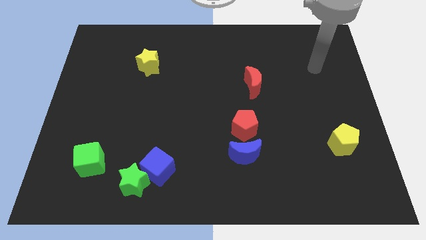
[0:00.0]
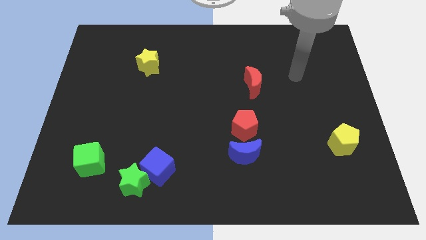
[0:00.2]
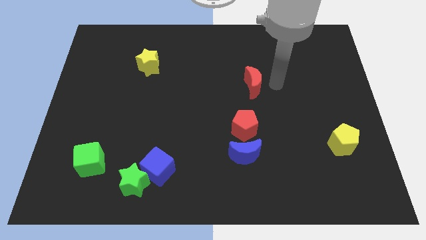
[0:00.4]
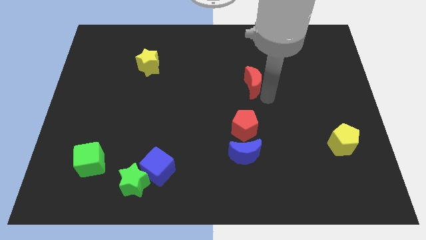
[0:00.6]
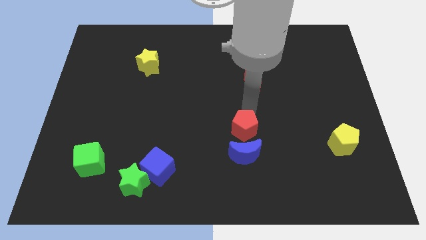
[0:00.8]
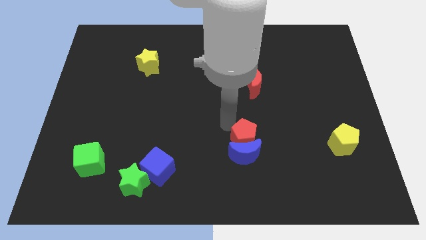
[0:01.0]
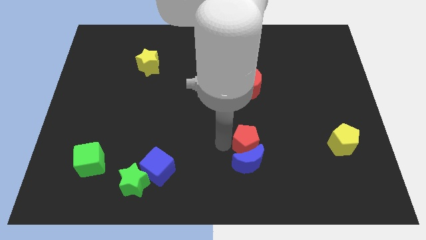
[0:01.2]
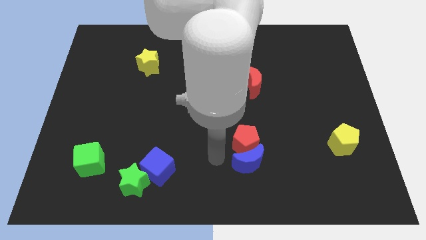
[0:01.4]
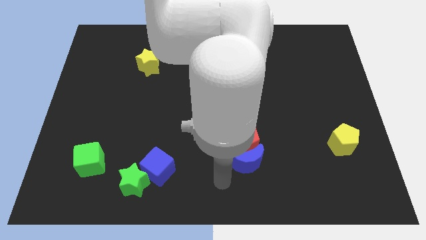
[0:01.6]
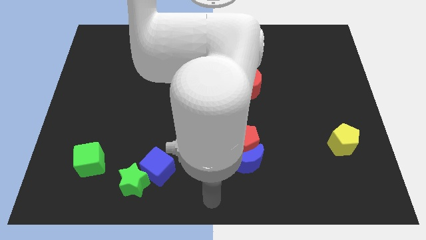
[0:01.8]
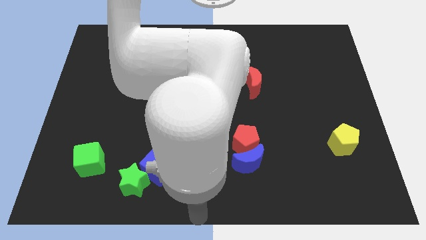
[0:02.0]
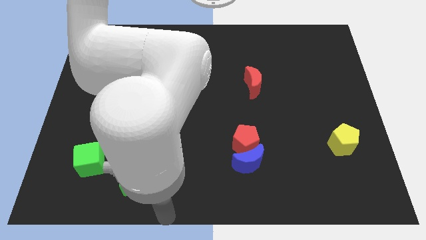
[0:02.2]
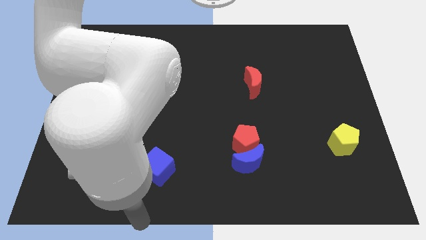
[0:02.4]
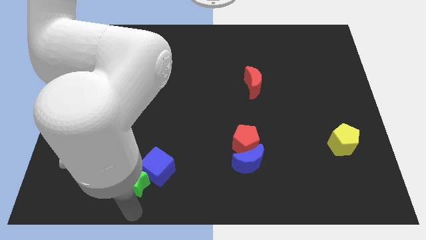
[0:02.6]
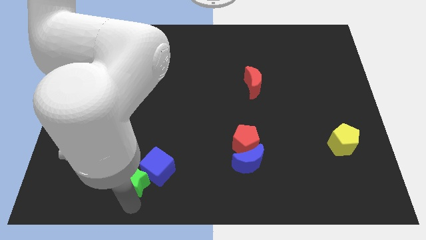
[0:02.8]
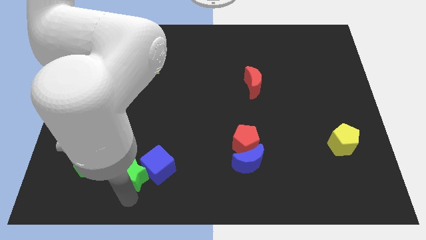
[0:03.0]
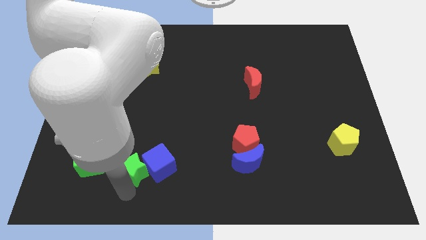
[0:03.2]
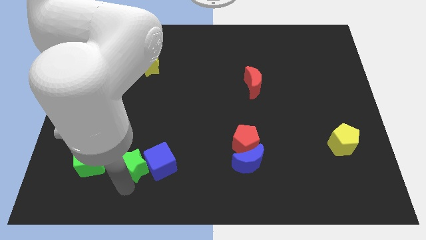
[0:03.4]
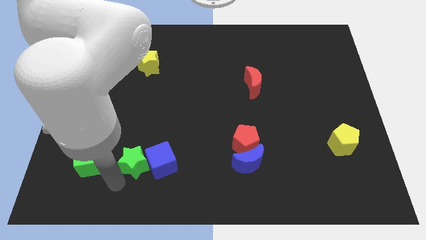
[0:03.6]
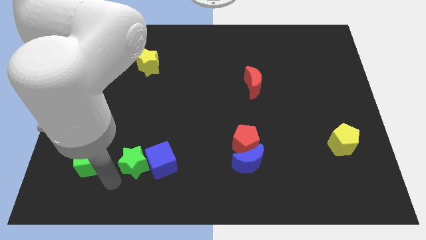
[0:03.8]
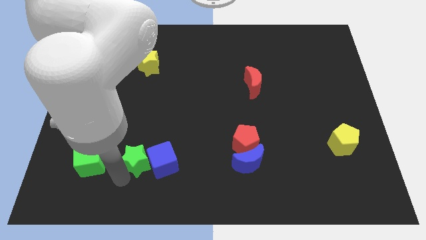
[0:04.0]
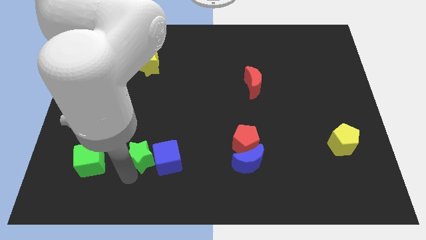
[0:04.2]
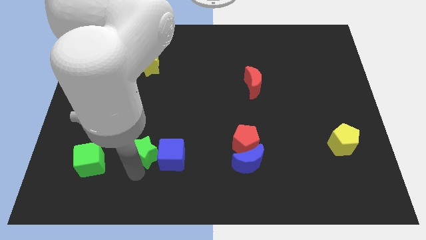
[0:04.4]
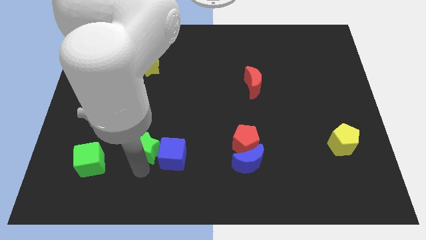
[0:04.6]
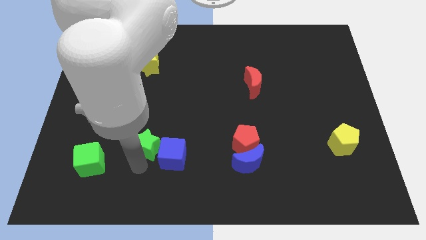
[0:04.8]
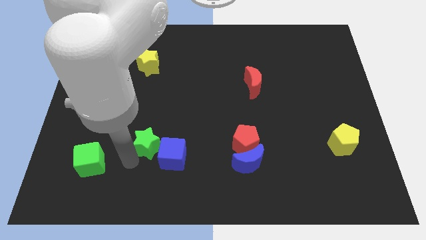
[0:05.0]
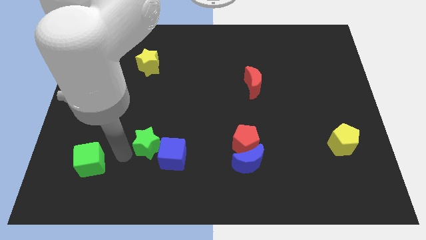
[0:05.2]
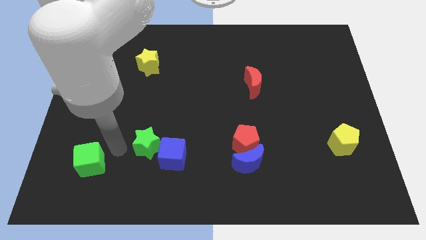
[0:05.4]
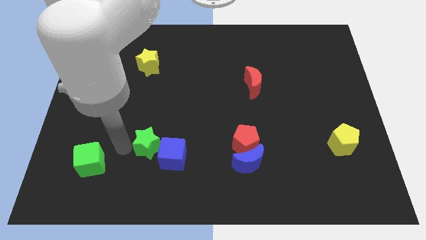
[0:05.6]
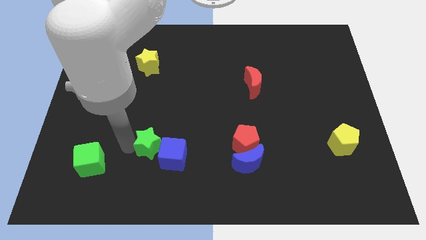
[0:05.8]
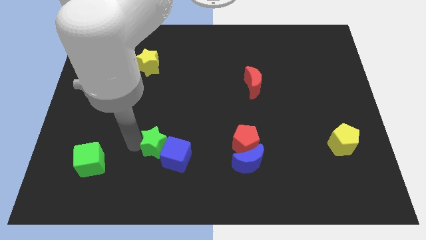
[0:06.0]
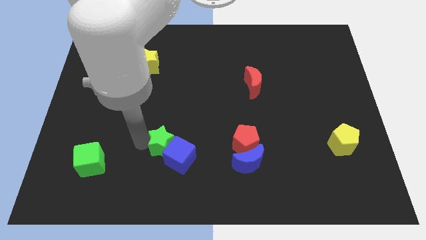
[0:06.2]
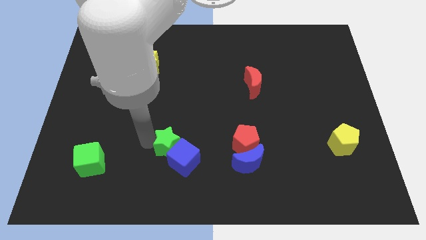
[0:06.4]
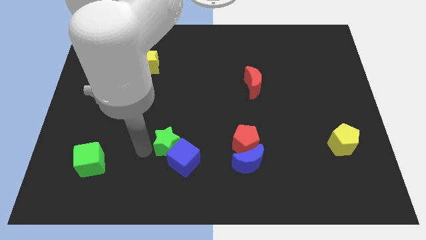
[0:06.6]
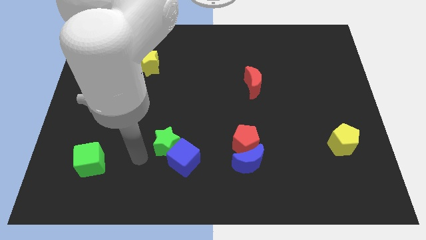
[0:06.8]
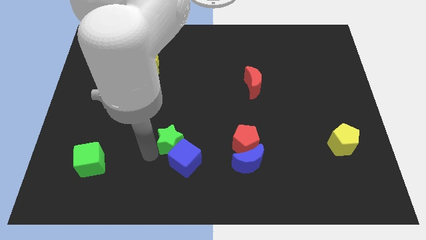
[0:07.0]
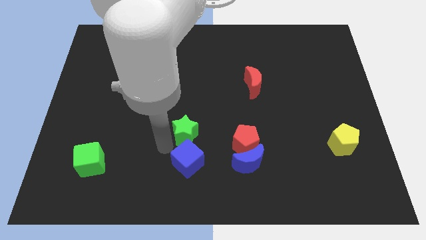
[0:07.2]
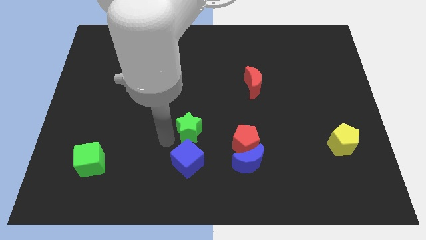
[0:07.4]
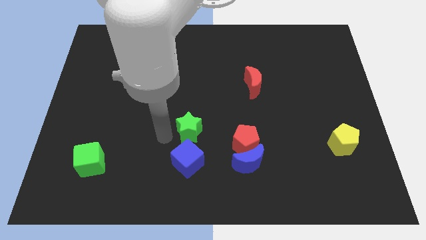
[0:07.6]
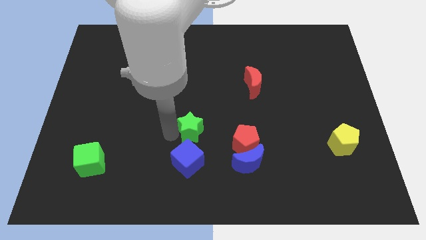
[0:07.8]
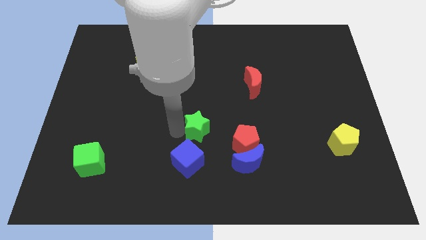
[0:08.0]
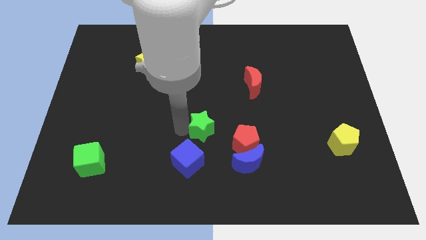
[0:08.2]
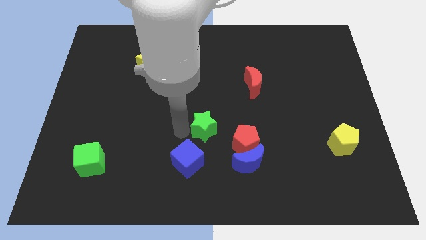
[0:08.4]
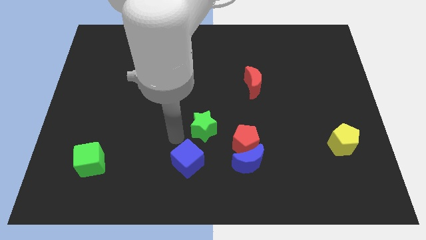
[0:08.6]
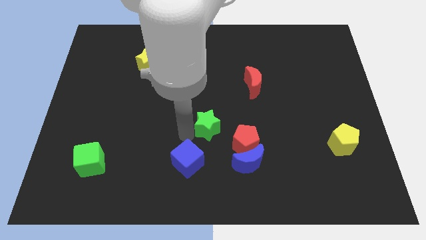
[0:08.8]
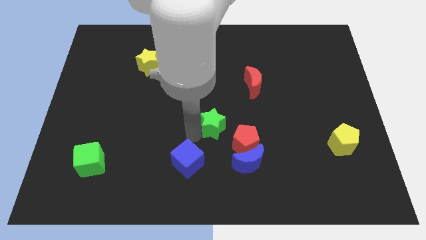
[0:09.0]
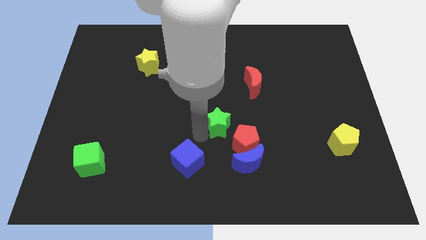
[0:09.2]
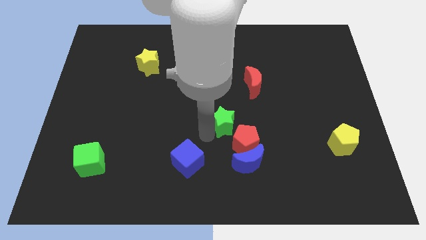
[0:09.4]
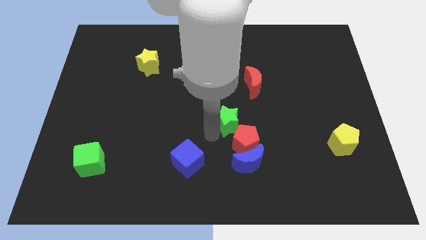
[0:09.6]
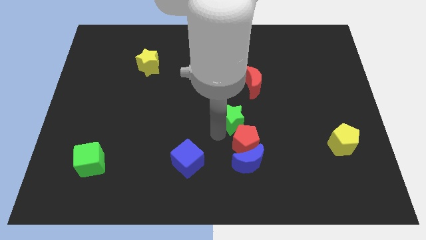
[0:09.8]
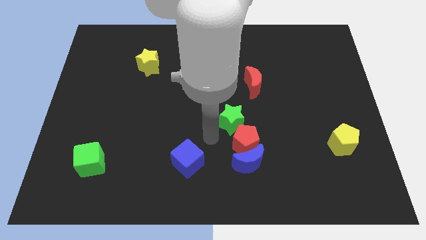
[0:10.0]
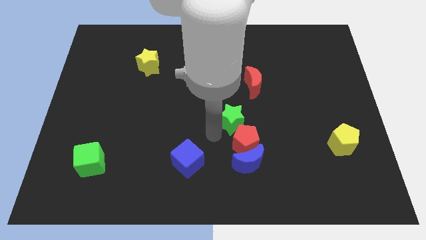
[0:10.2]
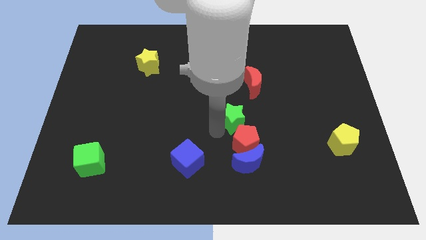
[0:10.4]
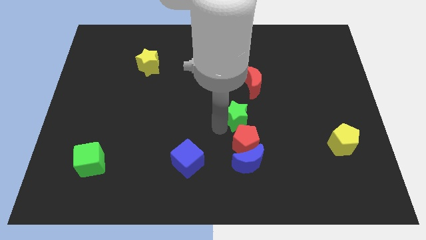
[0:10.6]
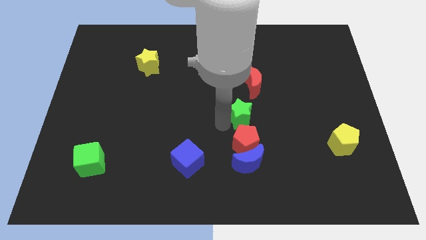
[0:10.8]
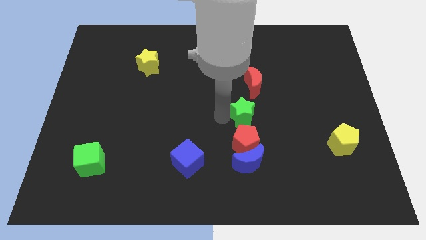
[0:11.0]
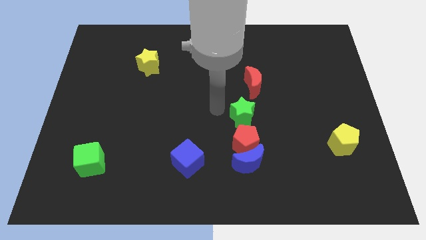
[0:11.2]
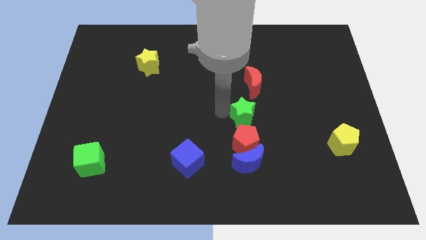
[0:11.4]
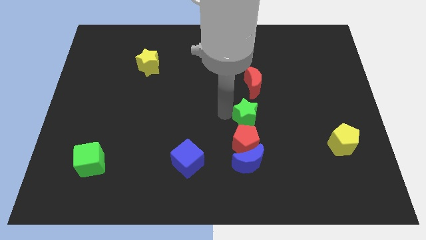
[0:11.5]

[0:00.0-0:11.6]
move the green star diagonally up and to the right of the red pentagon

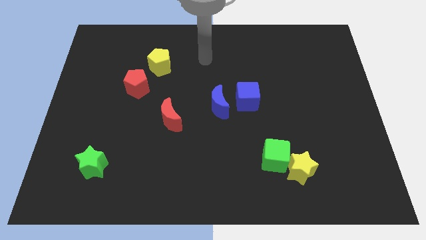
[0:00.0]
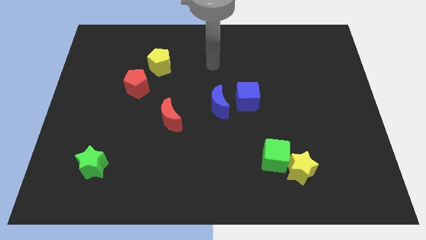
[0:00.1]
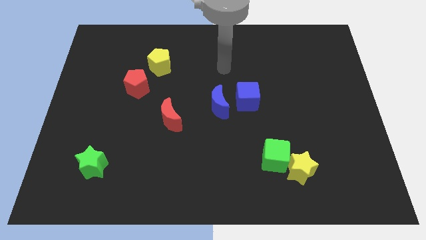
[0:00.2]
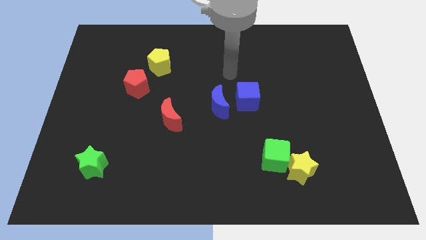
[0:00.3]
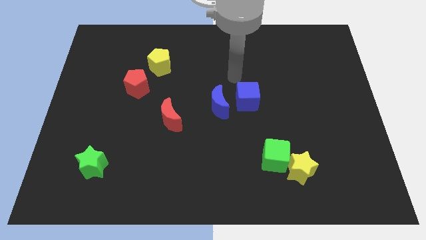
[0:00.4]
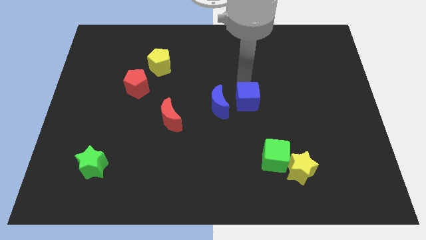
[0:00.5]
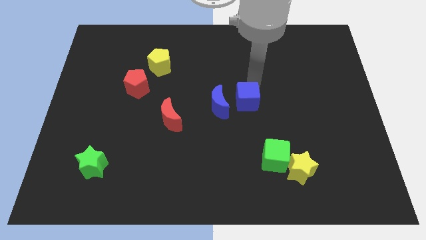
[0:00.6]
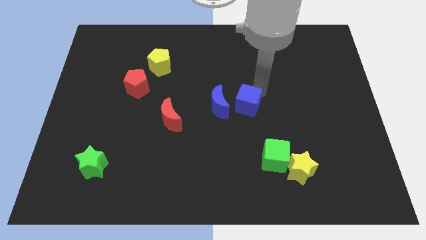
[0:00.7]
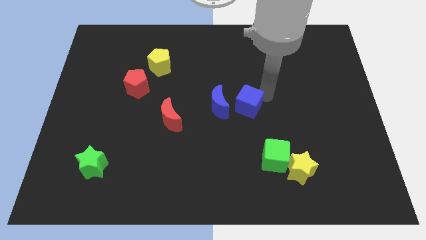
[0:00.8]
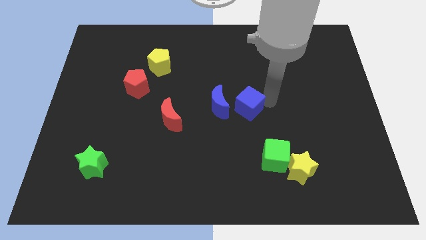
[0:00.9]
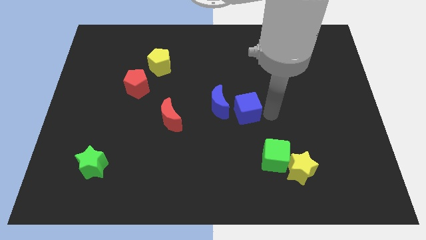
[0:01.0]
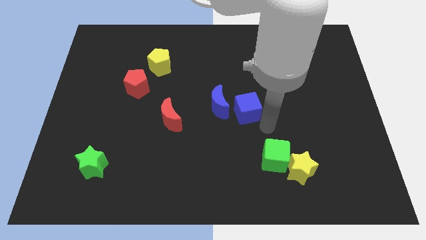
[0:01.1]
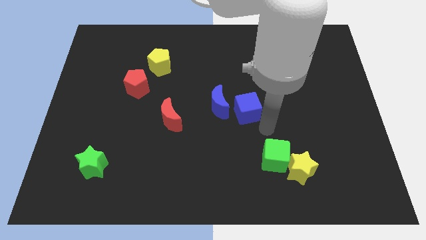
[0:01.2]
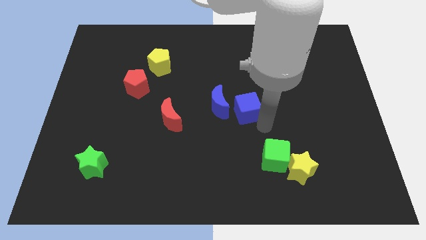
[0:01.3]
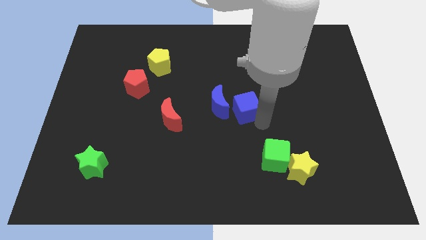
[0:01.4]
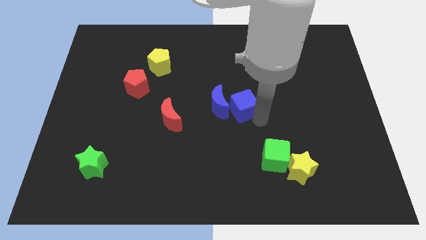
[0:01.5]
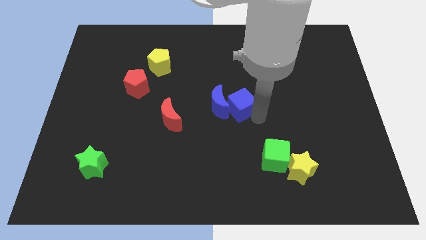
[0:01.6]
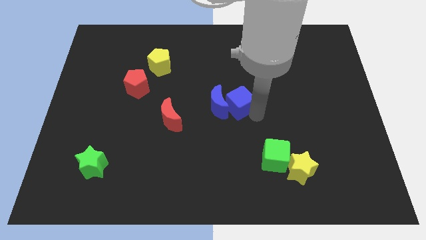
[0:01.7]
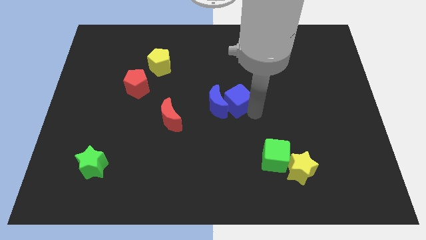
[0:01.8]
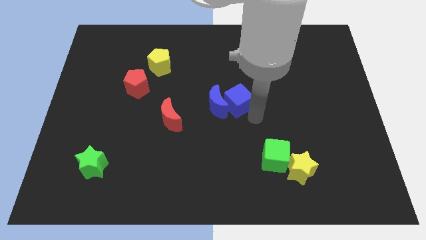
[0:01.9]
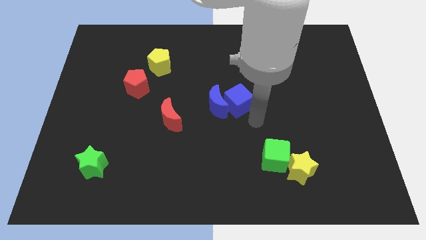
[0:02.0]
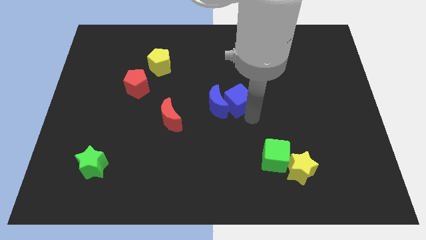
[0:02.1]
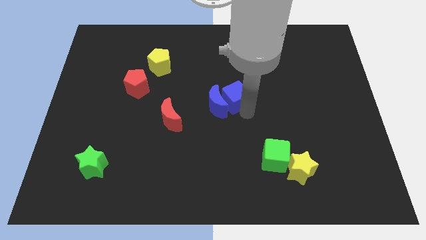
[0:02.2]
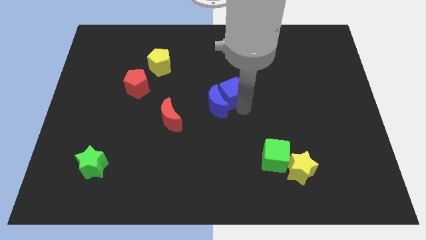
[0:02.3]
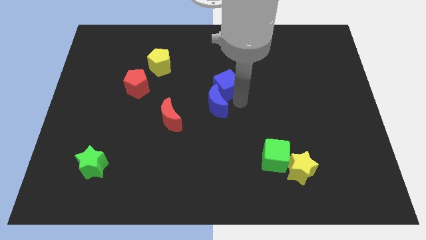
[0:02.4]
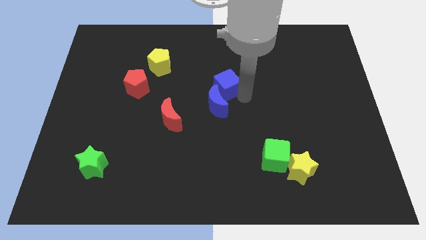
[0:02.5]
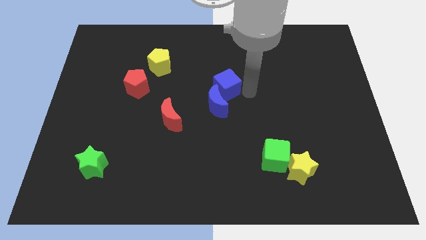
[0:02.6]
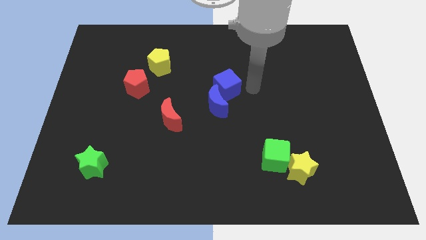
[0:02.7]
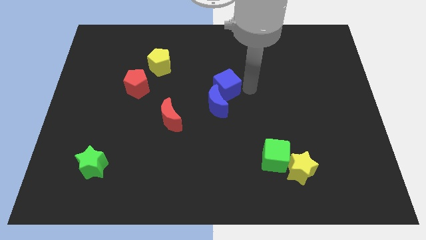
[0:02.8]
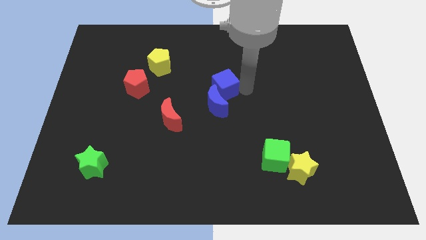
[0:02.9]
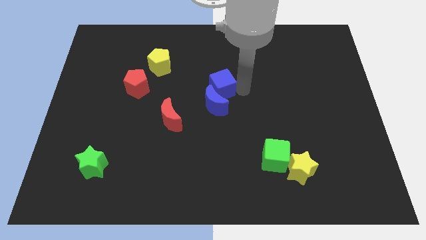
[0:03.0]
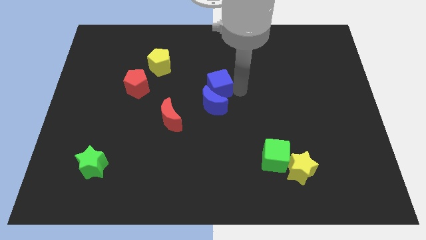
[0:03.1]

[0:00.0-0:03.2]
slide the blue cube diagonally up and to the left of the blue moon
